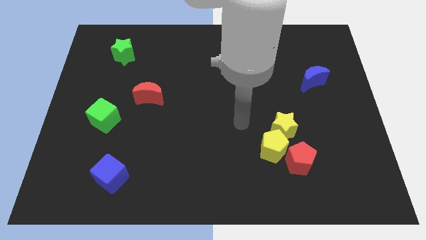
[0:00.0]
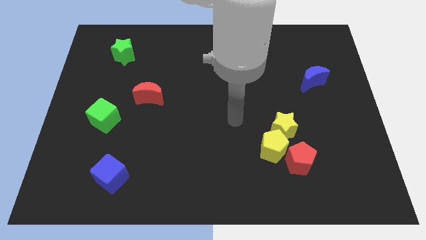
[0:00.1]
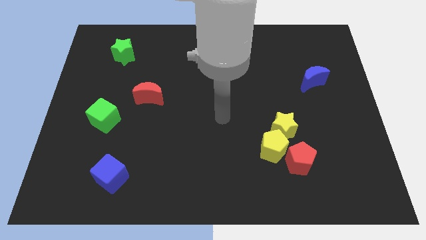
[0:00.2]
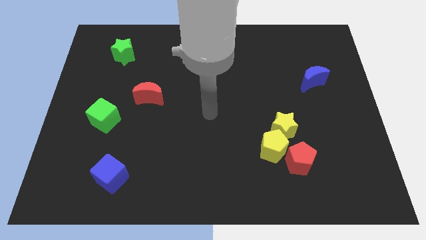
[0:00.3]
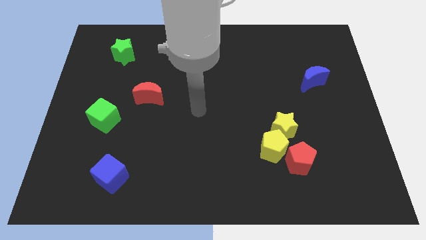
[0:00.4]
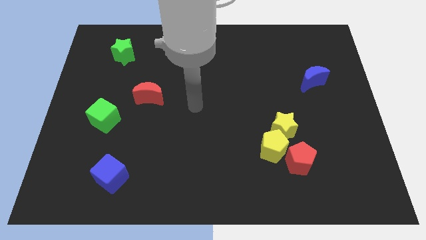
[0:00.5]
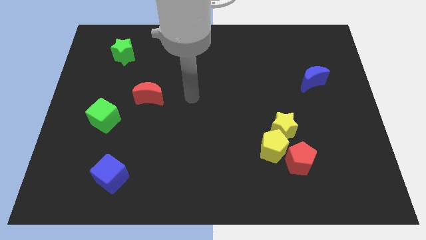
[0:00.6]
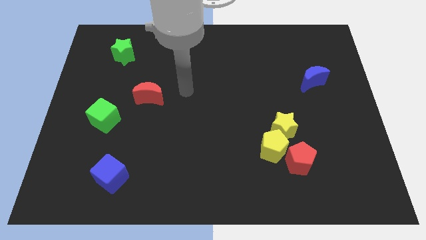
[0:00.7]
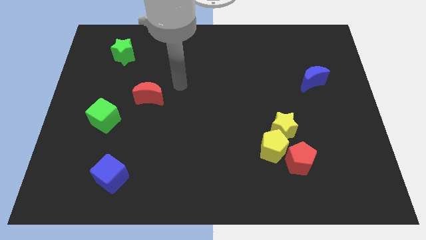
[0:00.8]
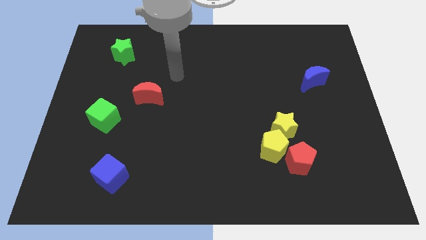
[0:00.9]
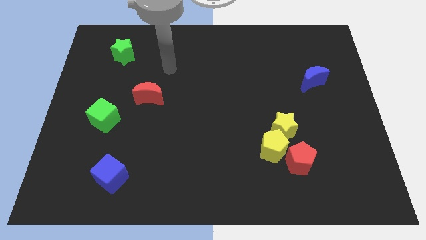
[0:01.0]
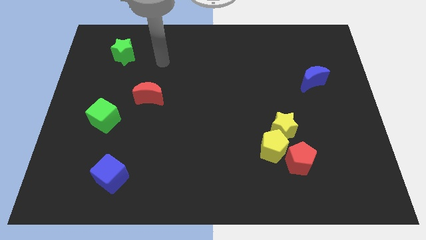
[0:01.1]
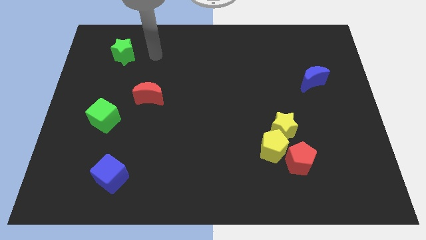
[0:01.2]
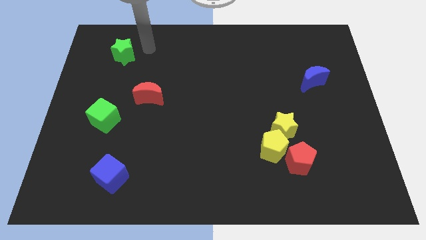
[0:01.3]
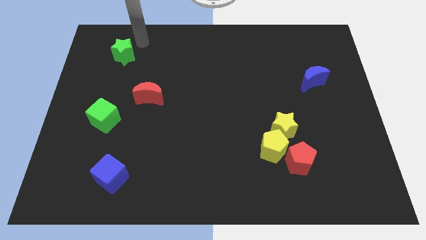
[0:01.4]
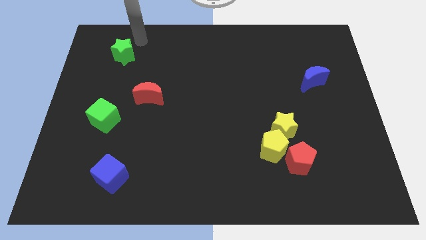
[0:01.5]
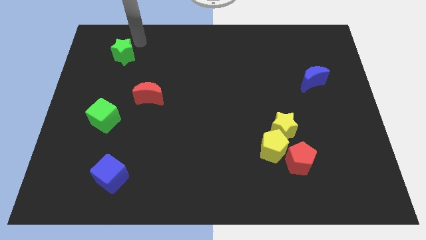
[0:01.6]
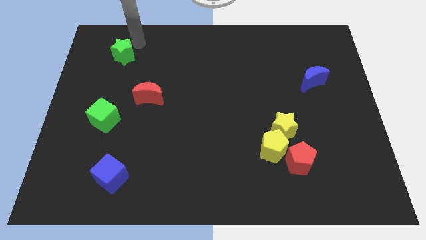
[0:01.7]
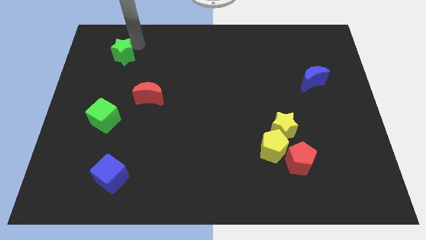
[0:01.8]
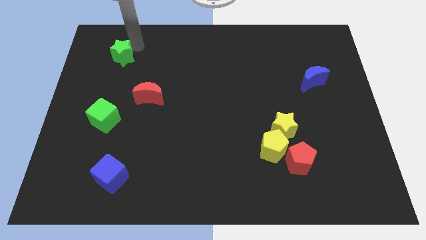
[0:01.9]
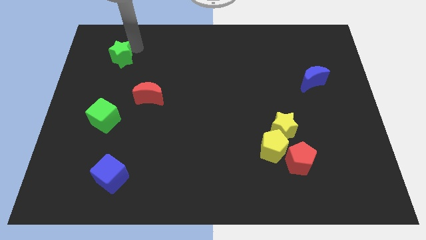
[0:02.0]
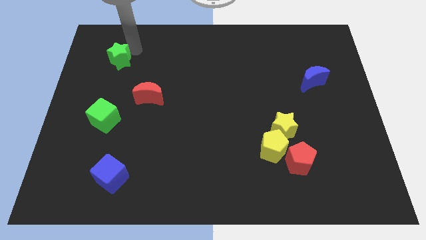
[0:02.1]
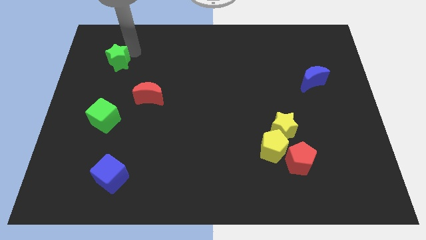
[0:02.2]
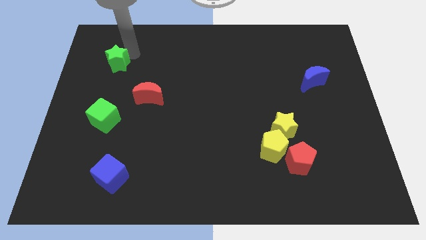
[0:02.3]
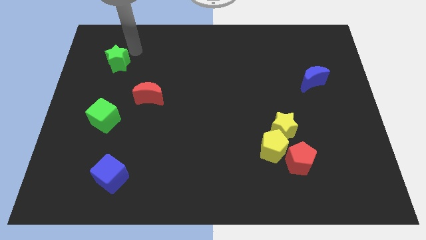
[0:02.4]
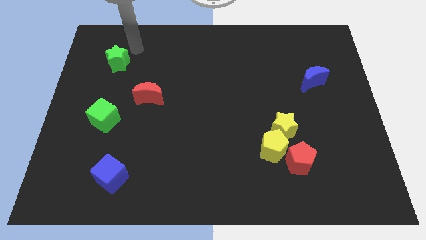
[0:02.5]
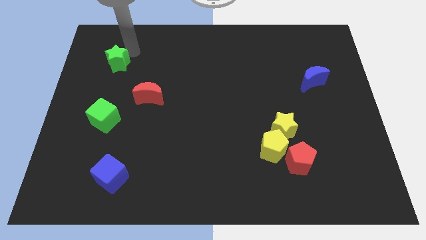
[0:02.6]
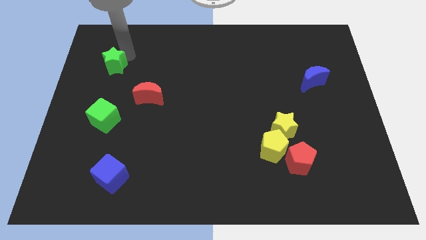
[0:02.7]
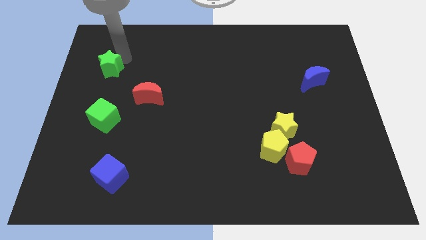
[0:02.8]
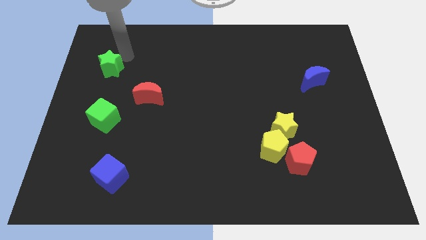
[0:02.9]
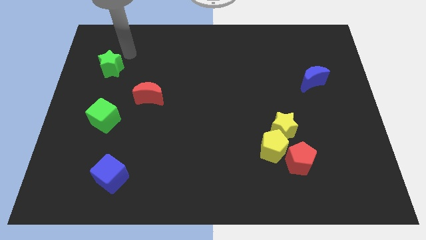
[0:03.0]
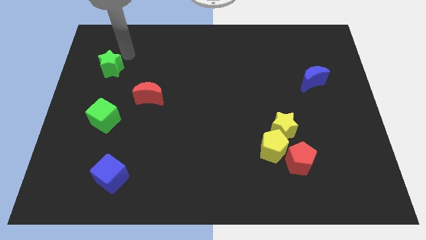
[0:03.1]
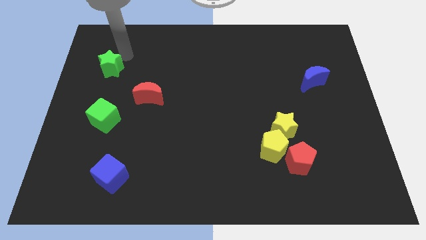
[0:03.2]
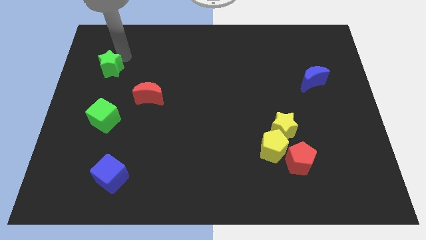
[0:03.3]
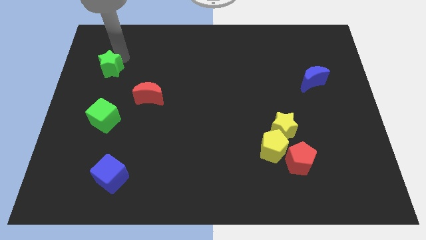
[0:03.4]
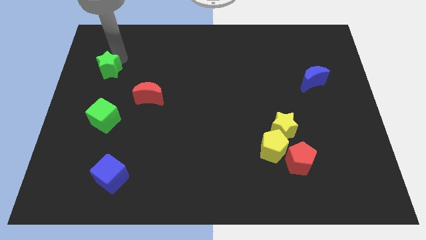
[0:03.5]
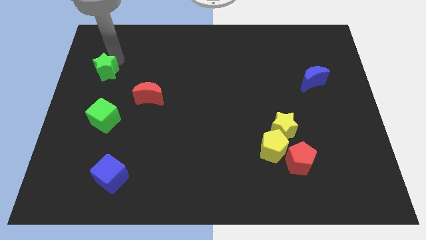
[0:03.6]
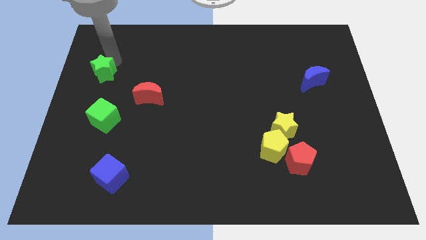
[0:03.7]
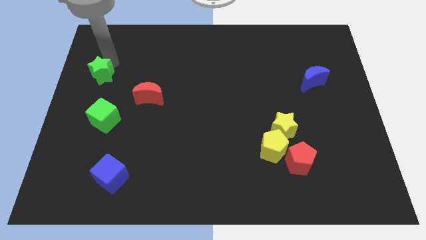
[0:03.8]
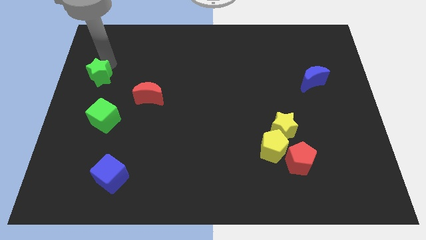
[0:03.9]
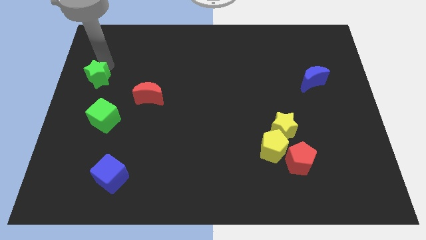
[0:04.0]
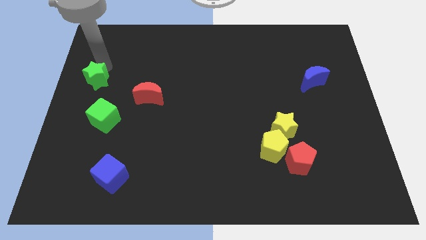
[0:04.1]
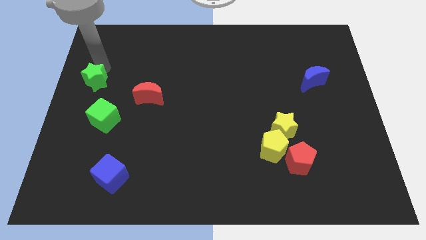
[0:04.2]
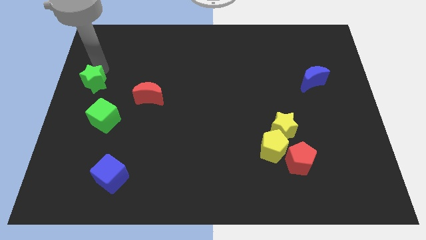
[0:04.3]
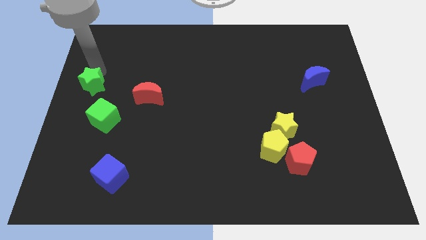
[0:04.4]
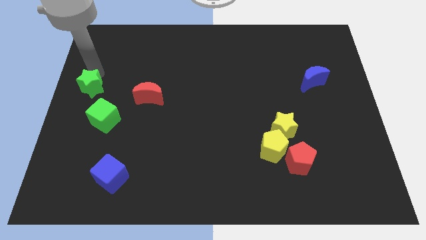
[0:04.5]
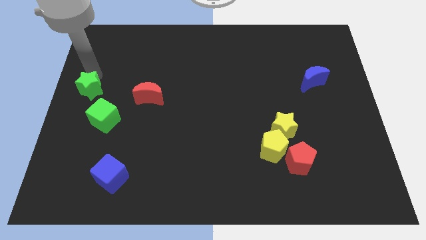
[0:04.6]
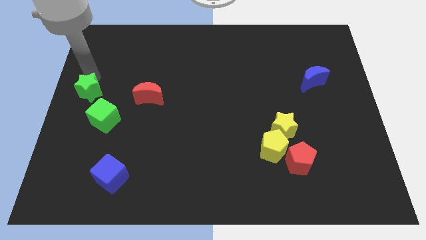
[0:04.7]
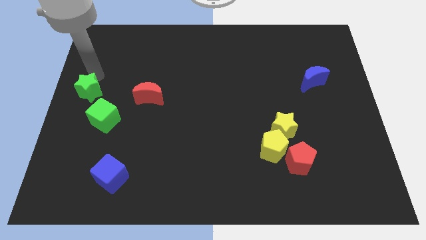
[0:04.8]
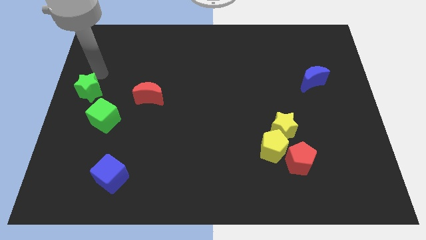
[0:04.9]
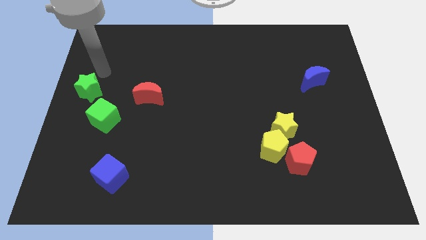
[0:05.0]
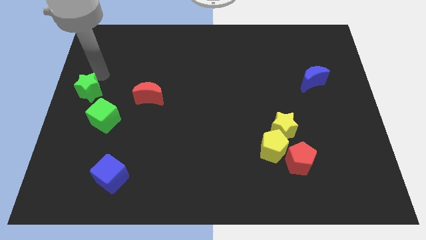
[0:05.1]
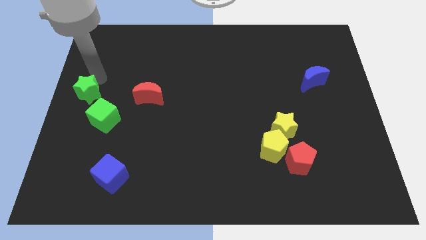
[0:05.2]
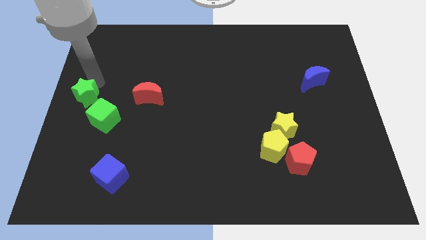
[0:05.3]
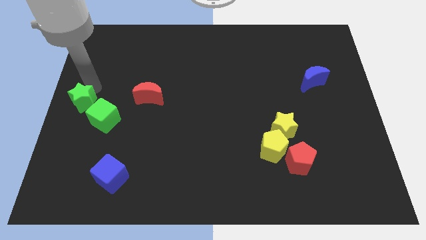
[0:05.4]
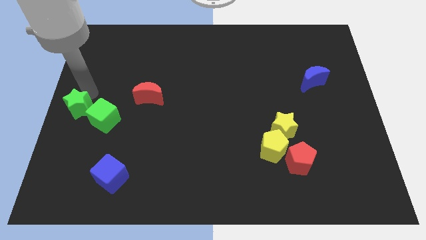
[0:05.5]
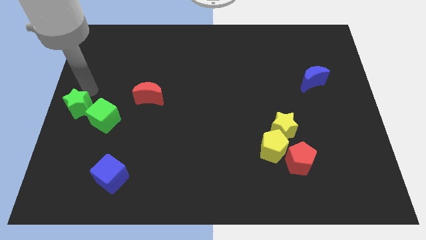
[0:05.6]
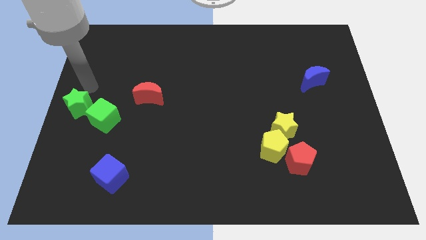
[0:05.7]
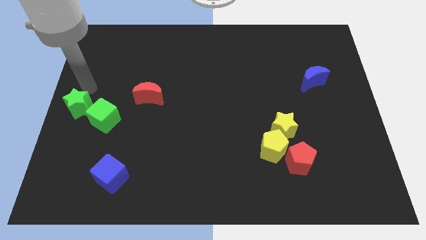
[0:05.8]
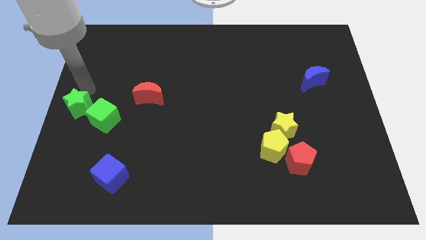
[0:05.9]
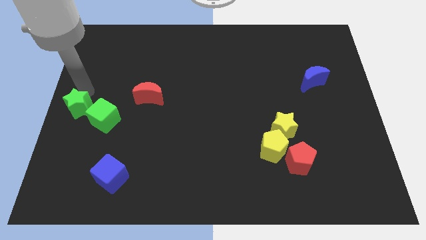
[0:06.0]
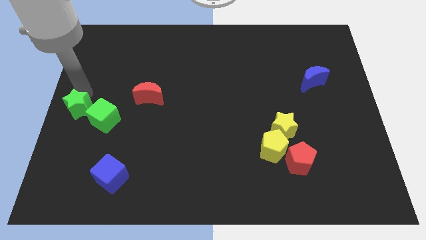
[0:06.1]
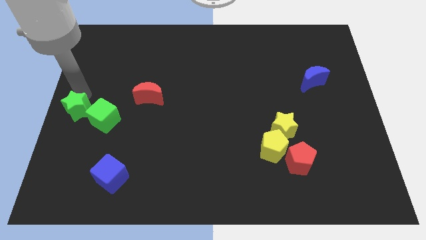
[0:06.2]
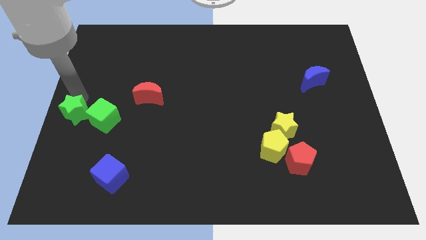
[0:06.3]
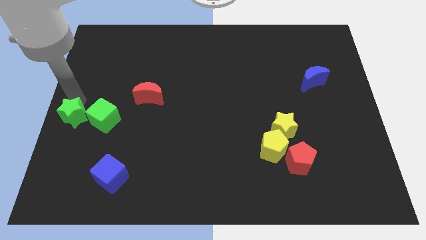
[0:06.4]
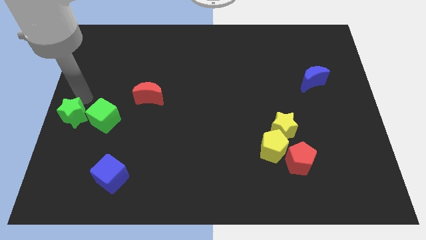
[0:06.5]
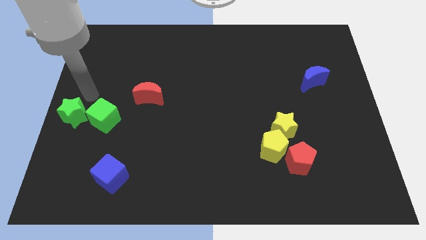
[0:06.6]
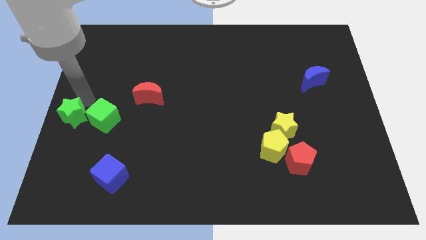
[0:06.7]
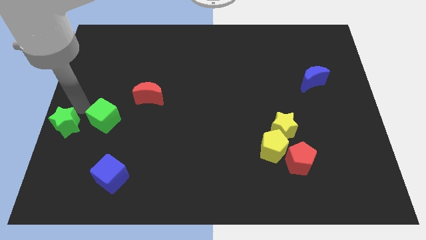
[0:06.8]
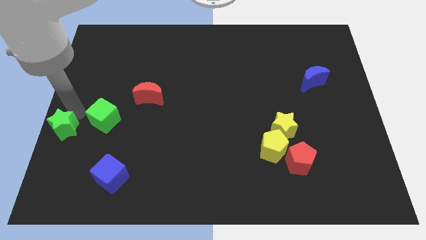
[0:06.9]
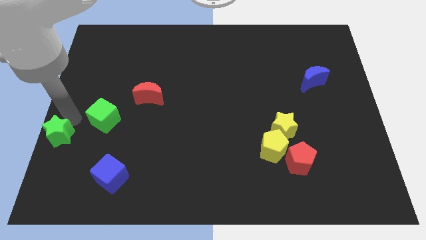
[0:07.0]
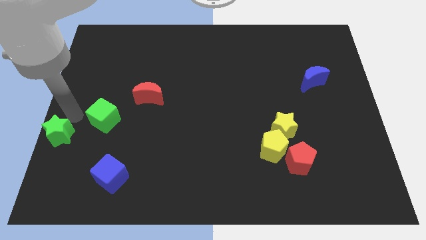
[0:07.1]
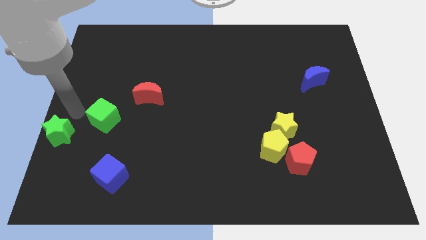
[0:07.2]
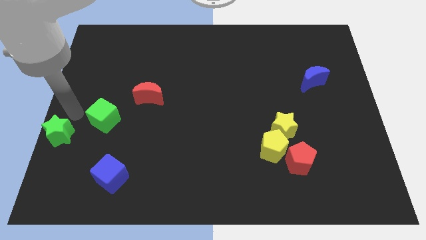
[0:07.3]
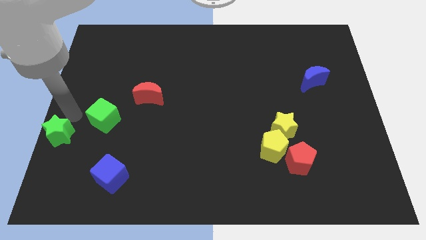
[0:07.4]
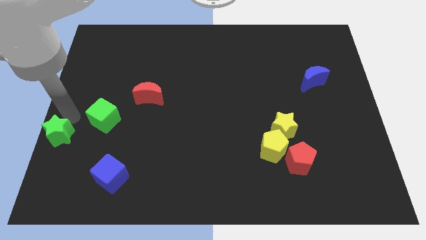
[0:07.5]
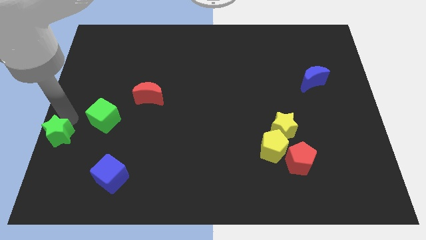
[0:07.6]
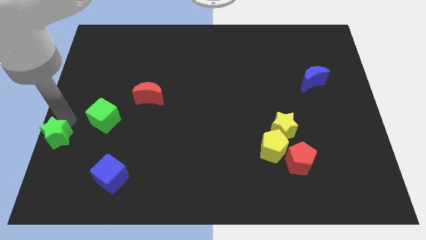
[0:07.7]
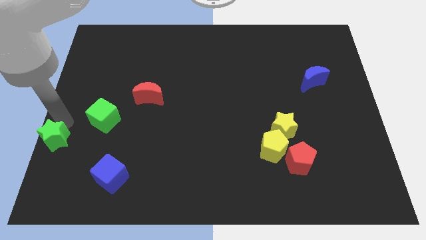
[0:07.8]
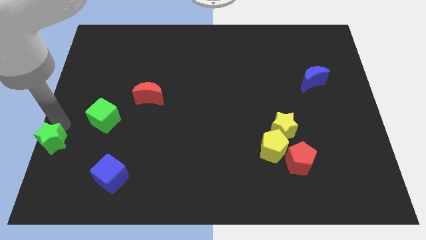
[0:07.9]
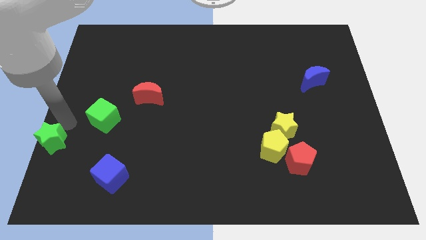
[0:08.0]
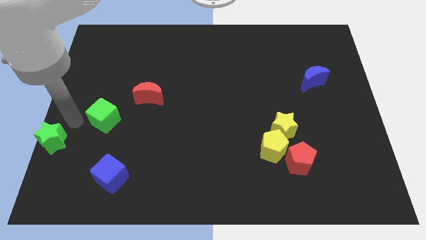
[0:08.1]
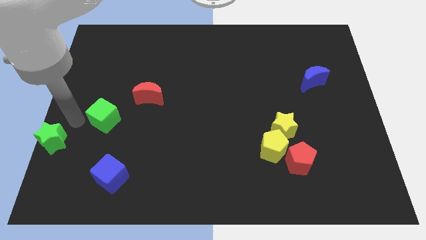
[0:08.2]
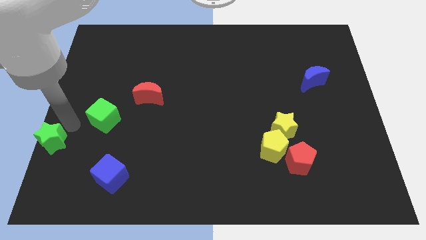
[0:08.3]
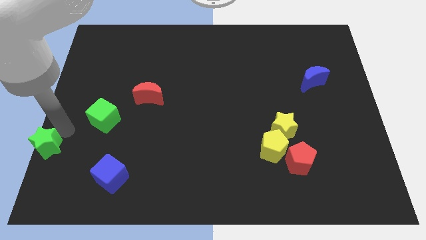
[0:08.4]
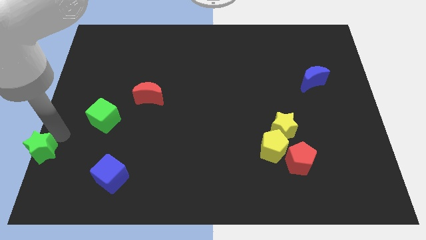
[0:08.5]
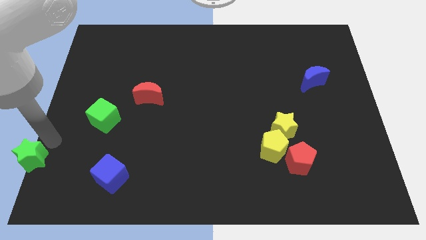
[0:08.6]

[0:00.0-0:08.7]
slide the green star to the bottom left corner
